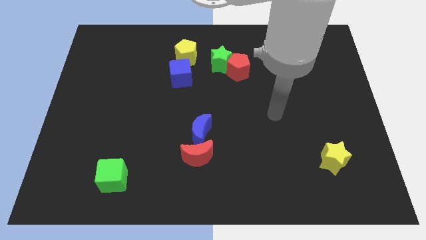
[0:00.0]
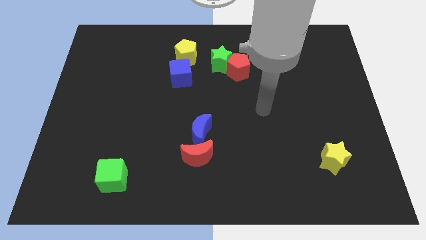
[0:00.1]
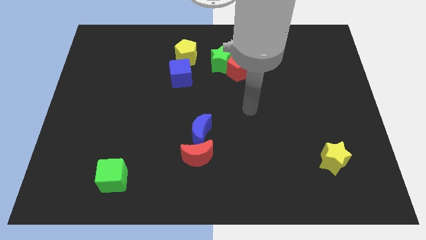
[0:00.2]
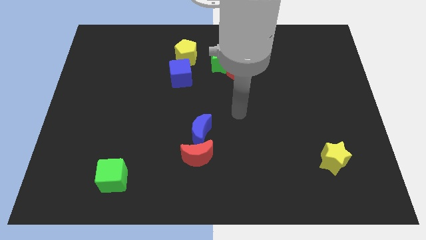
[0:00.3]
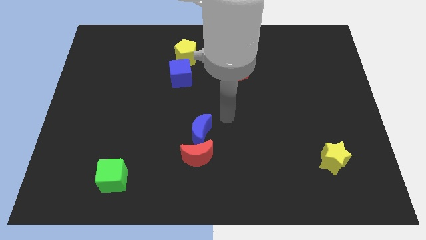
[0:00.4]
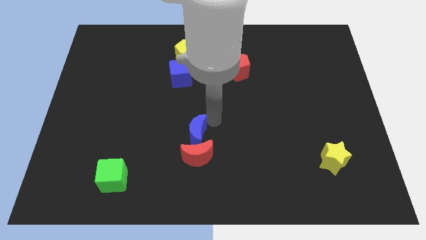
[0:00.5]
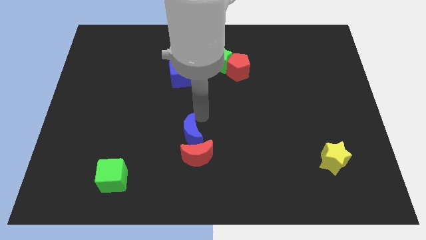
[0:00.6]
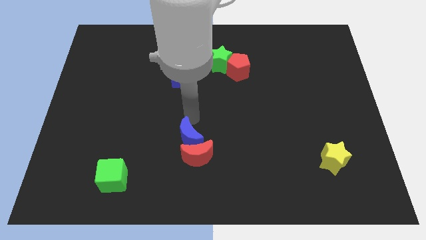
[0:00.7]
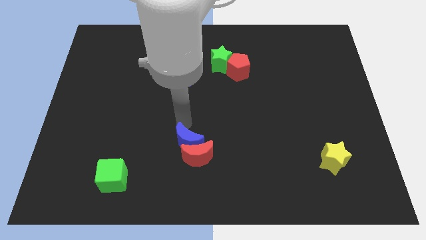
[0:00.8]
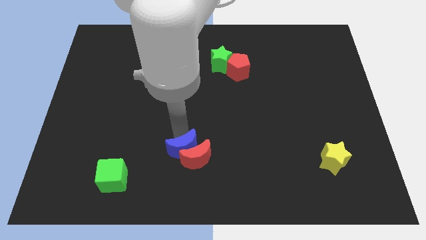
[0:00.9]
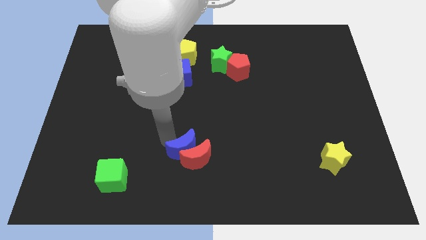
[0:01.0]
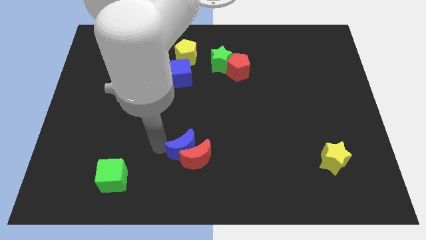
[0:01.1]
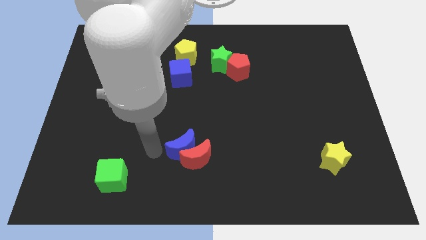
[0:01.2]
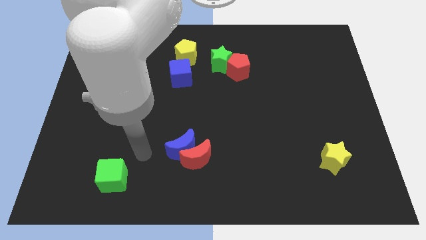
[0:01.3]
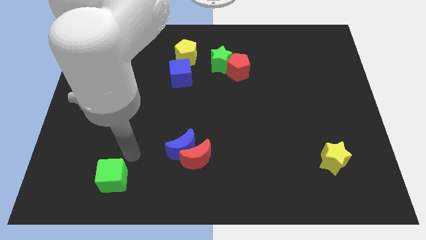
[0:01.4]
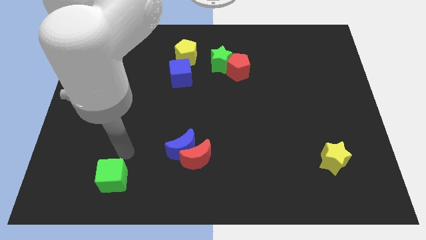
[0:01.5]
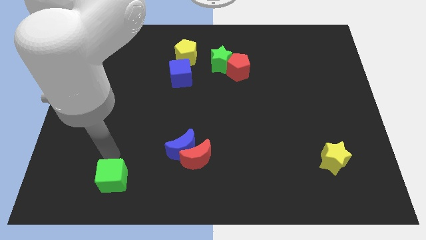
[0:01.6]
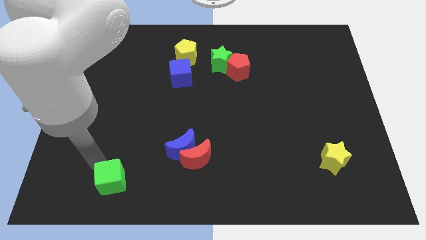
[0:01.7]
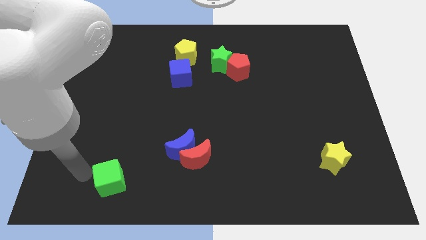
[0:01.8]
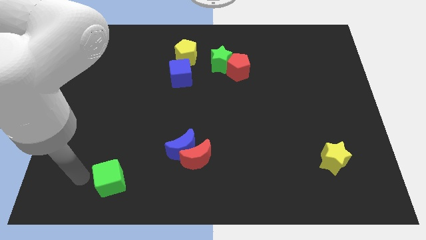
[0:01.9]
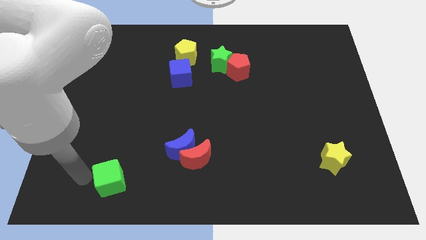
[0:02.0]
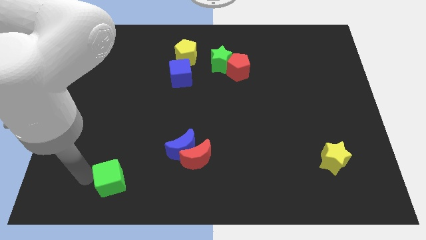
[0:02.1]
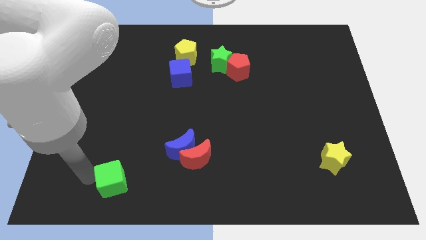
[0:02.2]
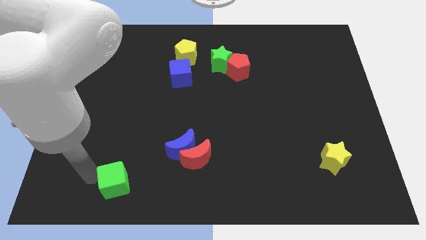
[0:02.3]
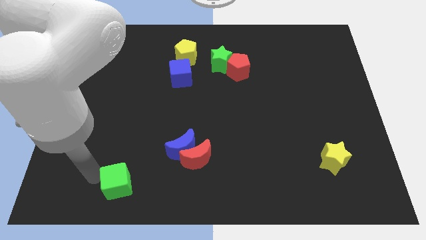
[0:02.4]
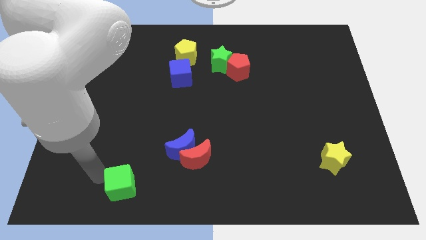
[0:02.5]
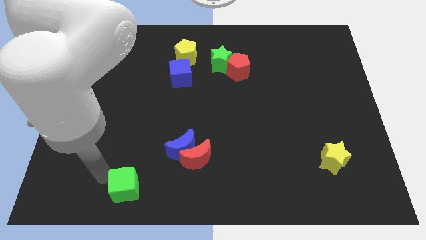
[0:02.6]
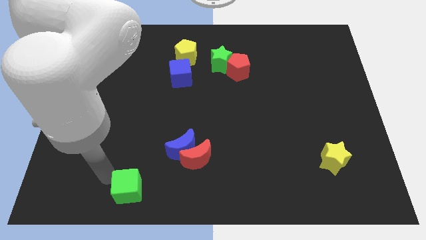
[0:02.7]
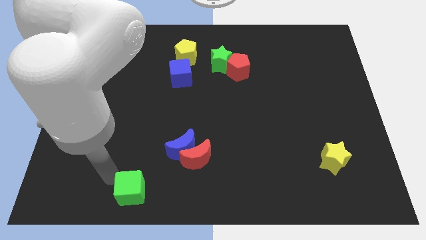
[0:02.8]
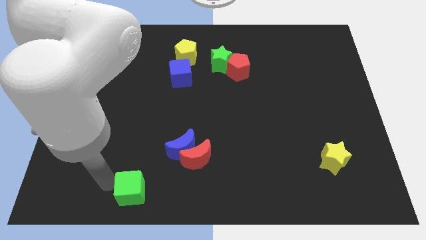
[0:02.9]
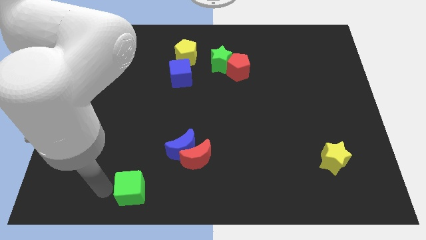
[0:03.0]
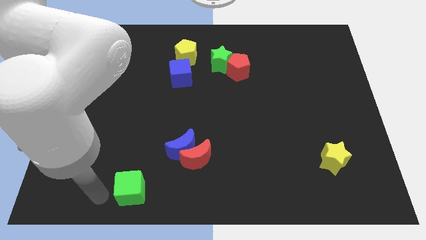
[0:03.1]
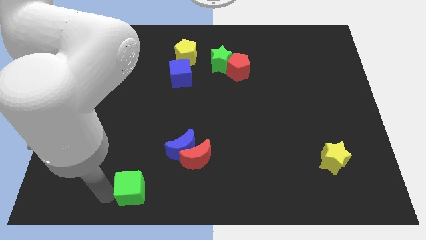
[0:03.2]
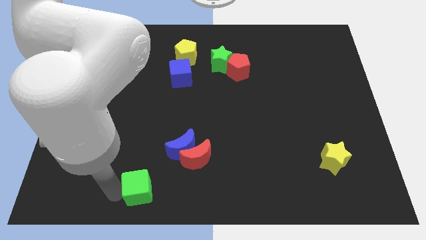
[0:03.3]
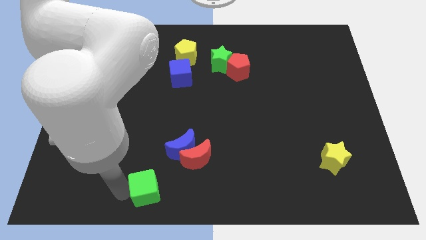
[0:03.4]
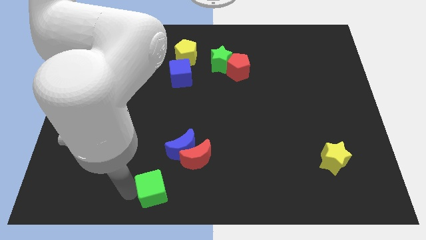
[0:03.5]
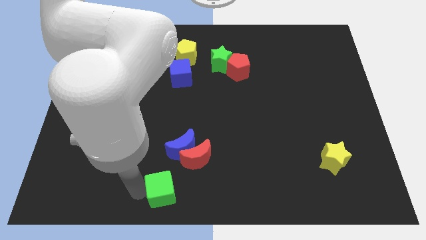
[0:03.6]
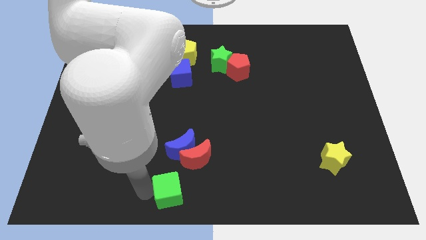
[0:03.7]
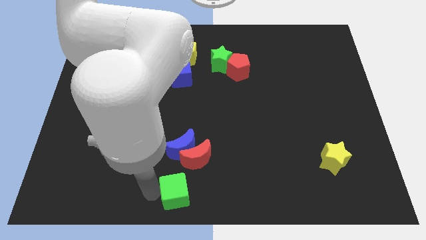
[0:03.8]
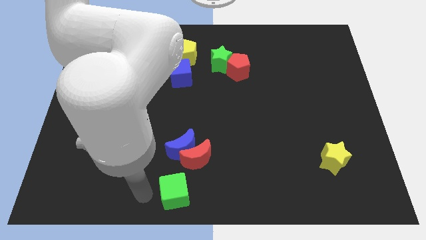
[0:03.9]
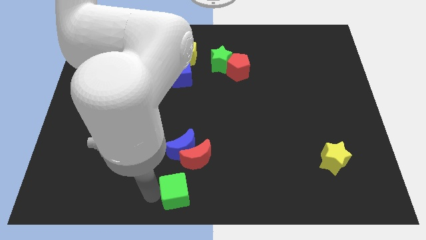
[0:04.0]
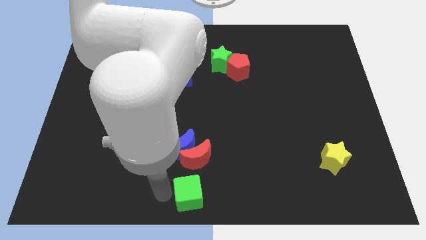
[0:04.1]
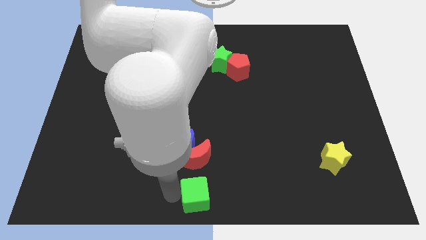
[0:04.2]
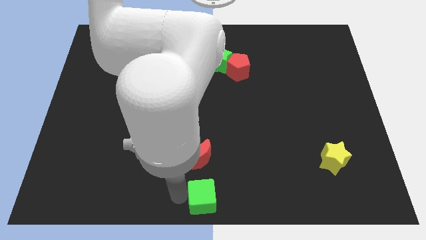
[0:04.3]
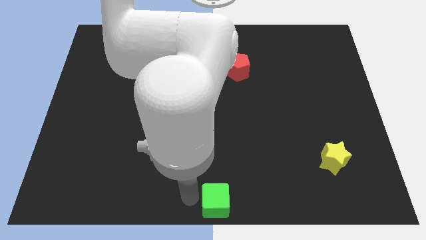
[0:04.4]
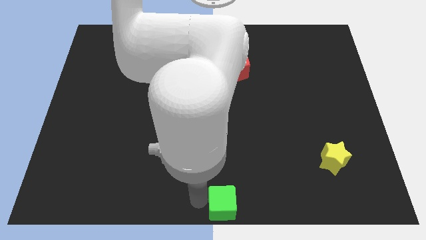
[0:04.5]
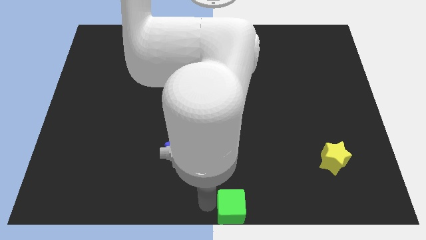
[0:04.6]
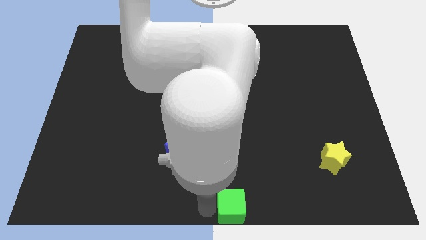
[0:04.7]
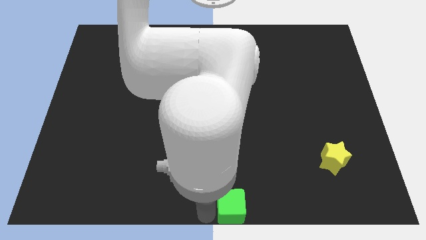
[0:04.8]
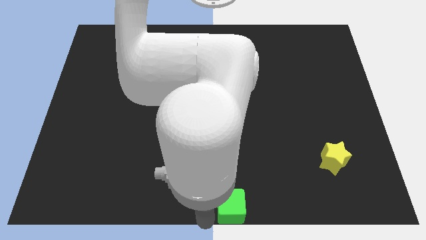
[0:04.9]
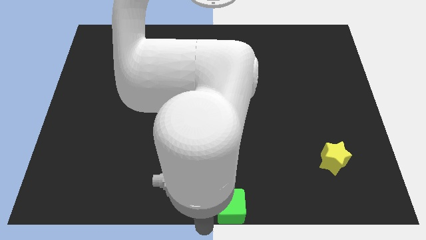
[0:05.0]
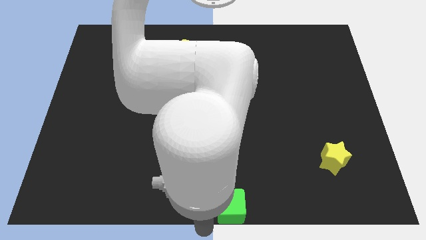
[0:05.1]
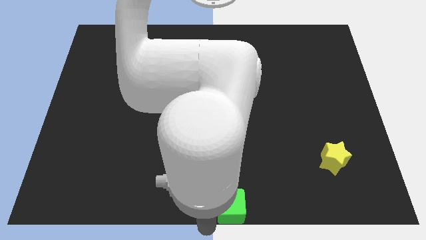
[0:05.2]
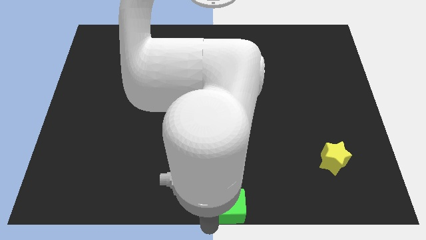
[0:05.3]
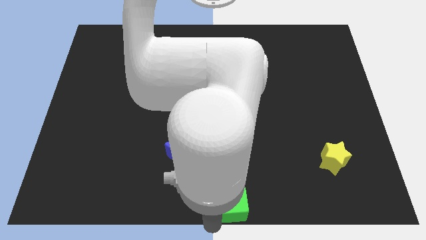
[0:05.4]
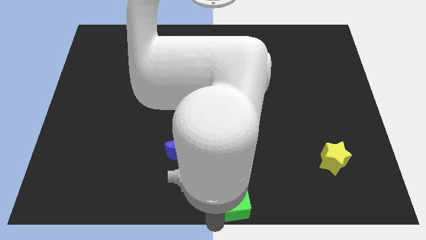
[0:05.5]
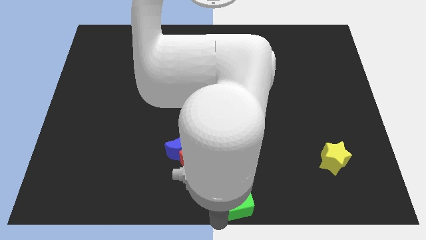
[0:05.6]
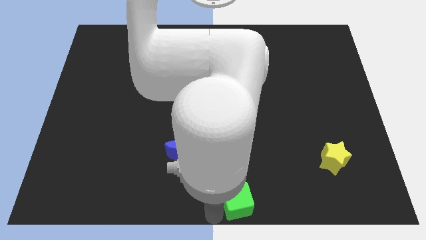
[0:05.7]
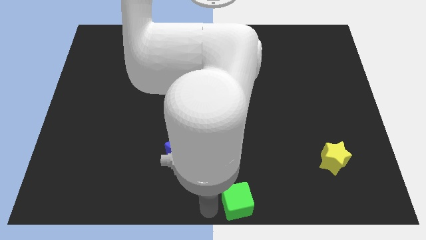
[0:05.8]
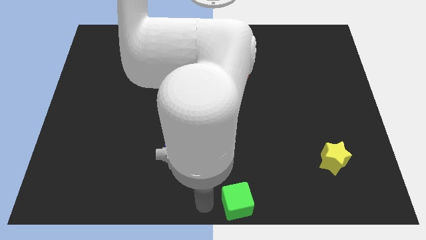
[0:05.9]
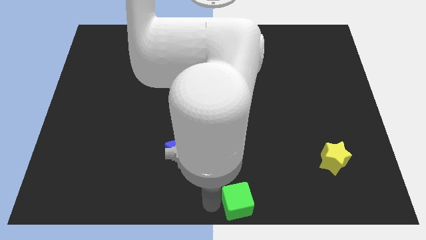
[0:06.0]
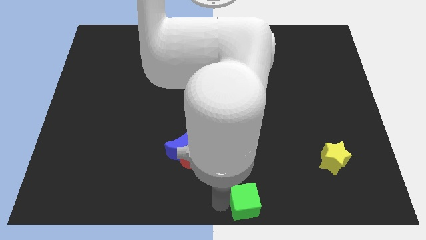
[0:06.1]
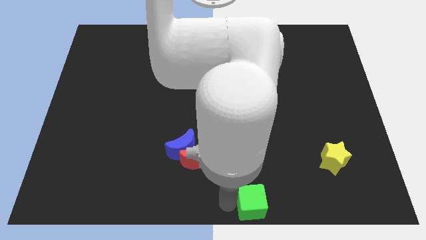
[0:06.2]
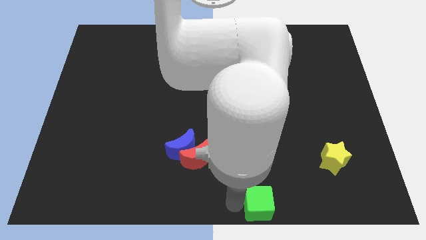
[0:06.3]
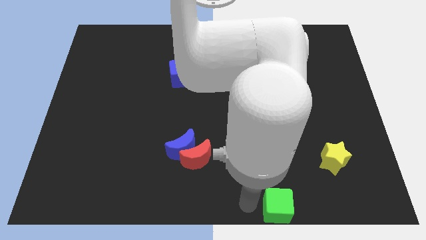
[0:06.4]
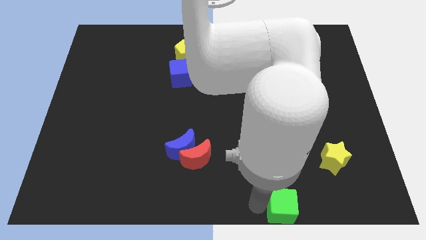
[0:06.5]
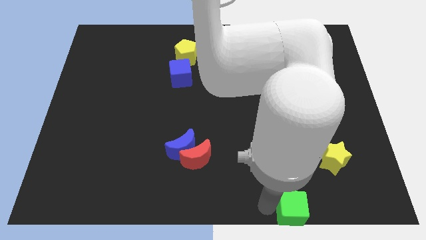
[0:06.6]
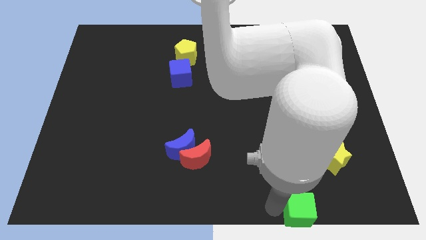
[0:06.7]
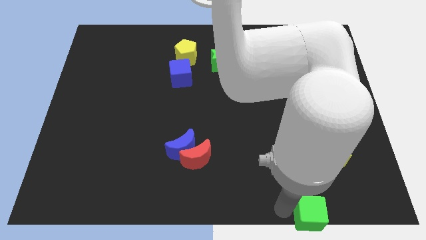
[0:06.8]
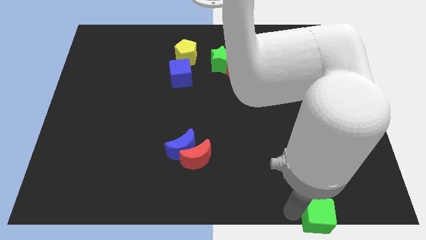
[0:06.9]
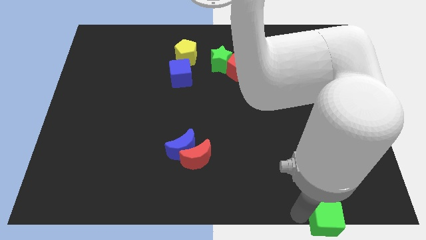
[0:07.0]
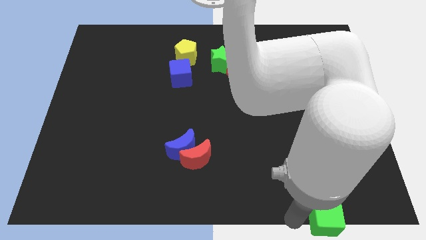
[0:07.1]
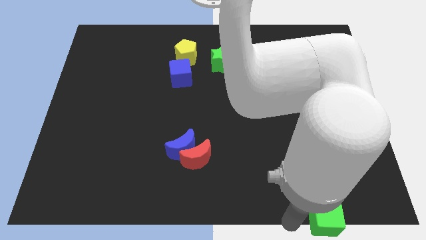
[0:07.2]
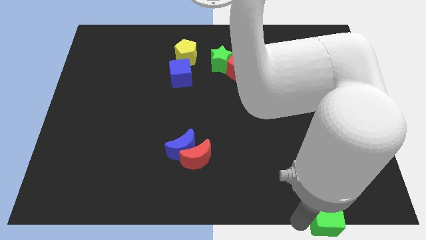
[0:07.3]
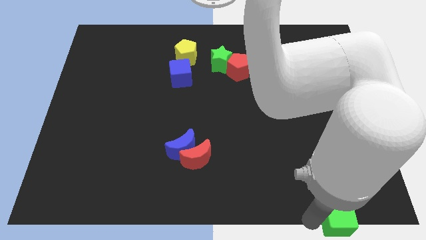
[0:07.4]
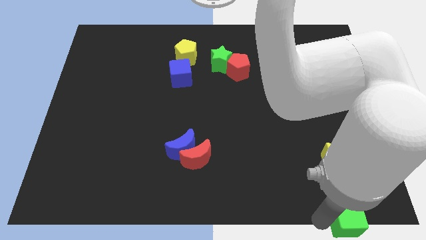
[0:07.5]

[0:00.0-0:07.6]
slide the green cube to the bottom right corner
